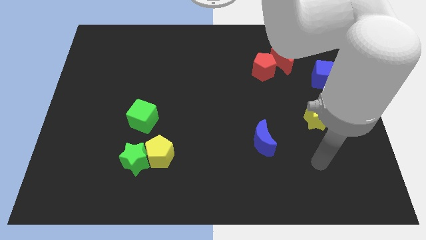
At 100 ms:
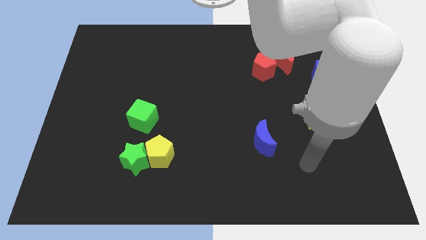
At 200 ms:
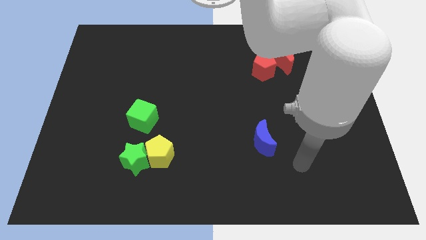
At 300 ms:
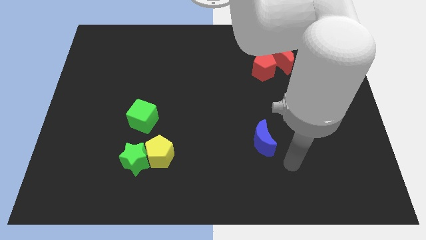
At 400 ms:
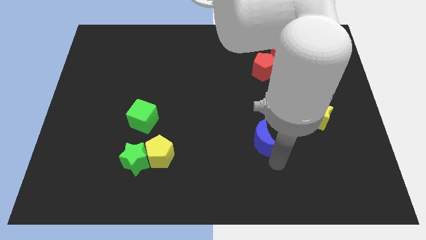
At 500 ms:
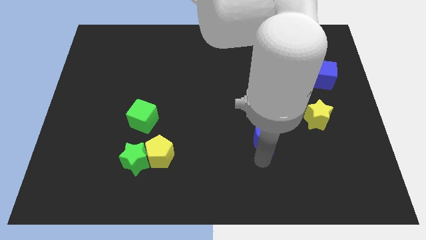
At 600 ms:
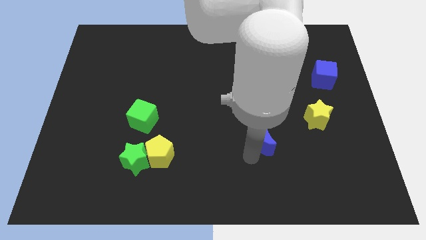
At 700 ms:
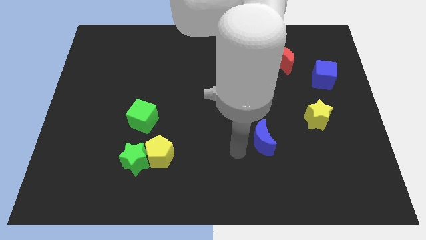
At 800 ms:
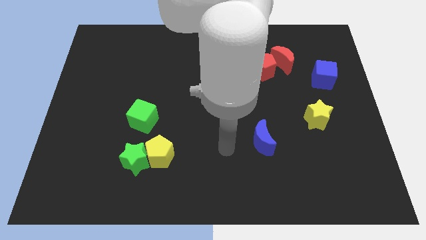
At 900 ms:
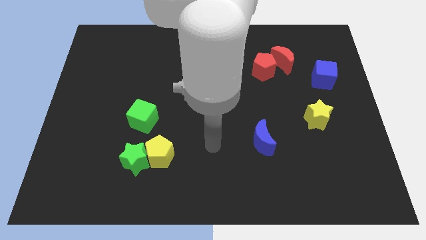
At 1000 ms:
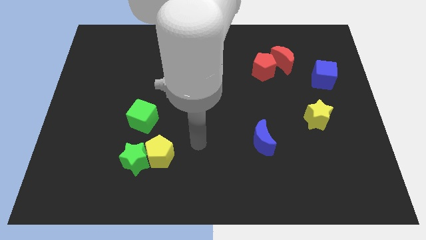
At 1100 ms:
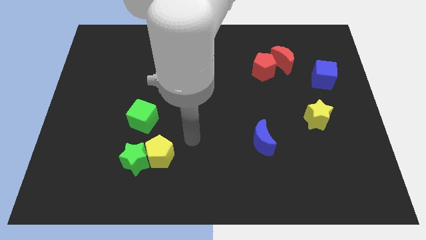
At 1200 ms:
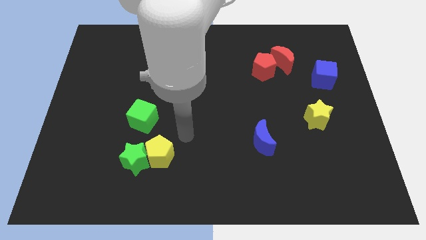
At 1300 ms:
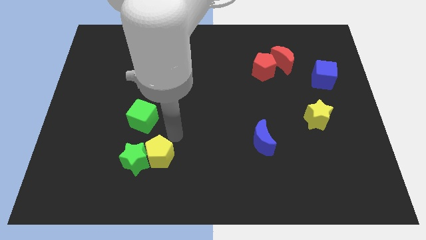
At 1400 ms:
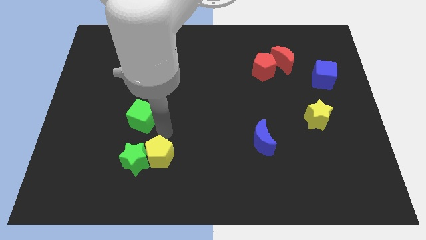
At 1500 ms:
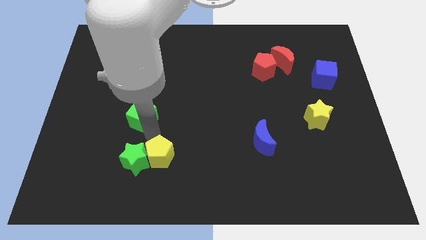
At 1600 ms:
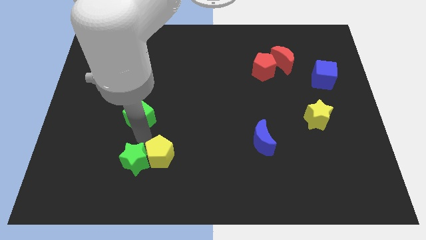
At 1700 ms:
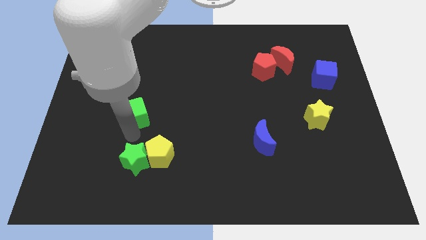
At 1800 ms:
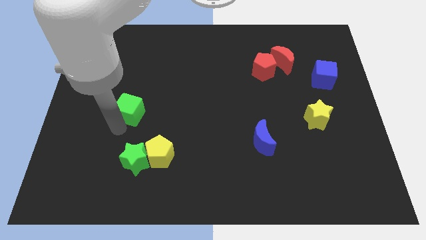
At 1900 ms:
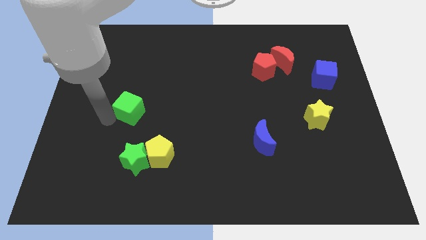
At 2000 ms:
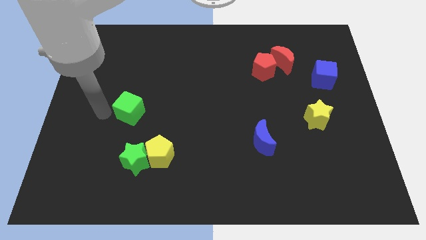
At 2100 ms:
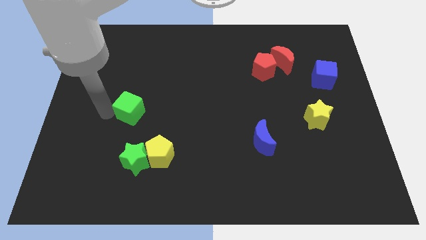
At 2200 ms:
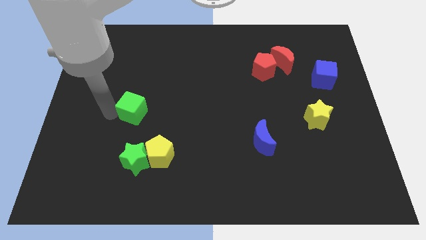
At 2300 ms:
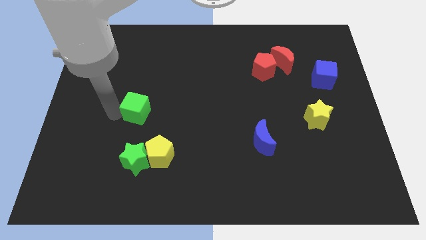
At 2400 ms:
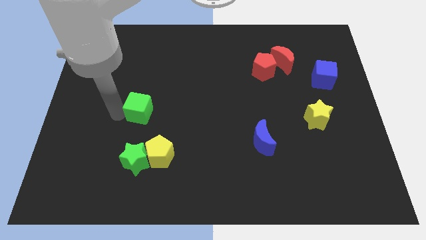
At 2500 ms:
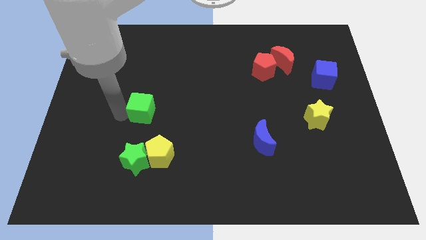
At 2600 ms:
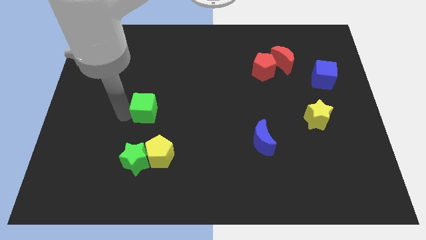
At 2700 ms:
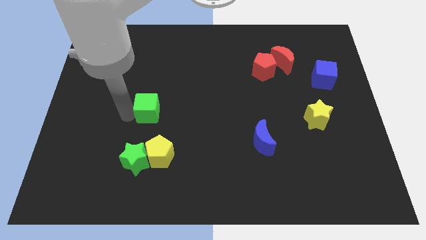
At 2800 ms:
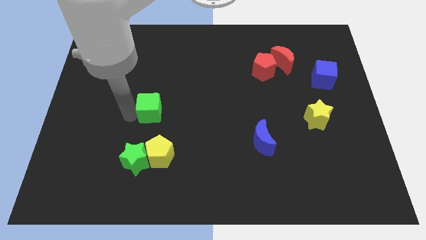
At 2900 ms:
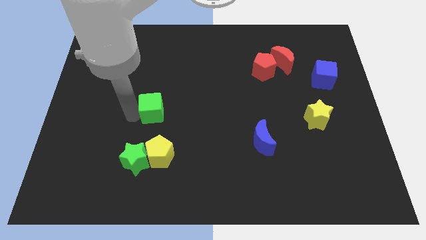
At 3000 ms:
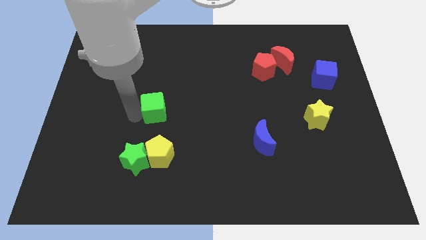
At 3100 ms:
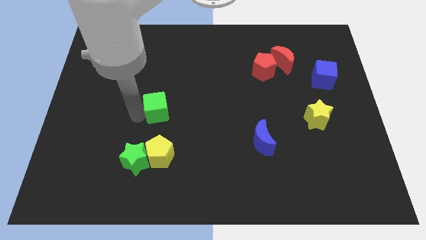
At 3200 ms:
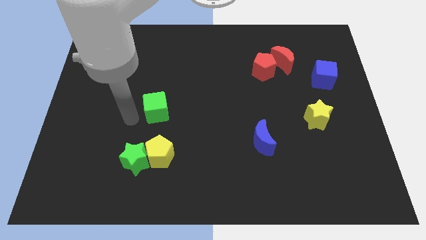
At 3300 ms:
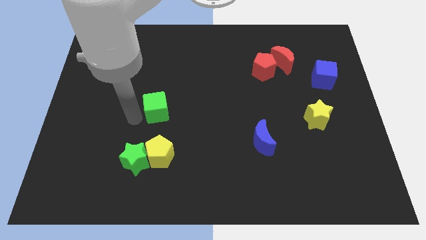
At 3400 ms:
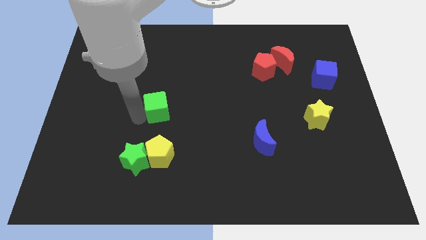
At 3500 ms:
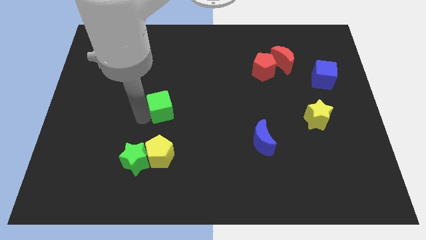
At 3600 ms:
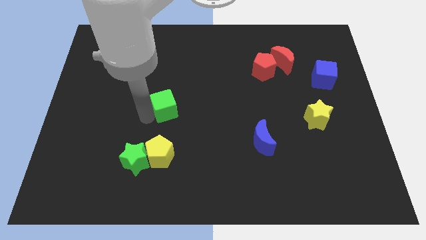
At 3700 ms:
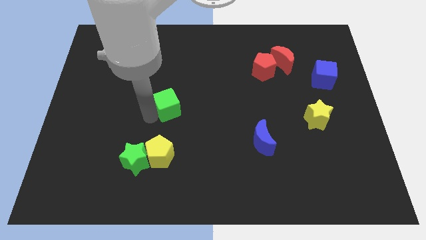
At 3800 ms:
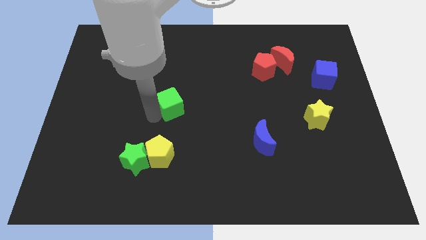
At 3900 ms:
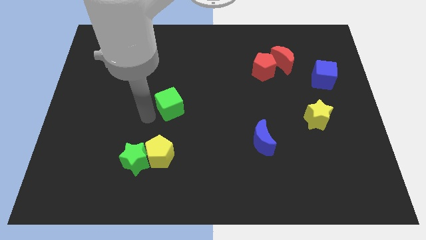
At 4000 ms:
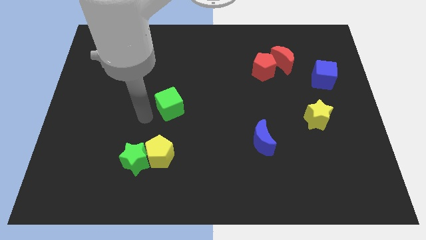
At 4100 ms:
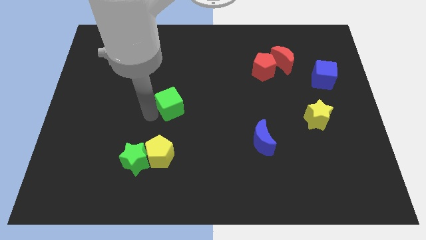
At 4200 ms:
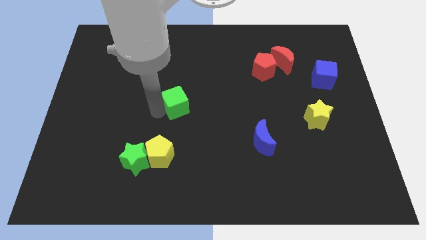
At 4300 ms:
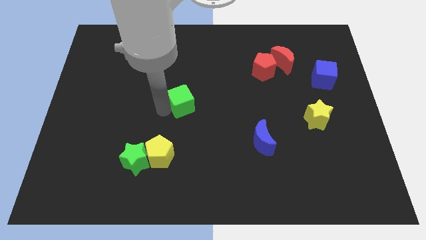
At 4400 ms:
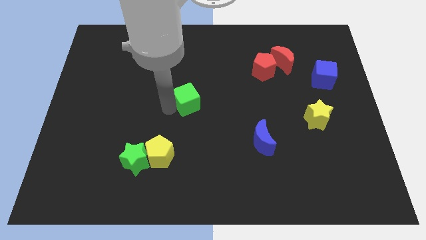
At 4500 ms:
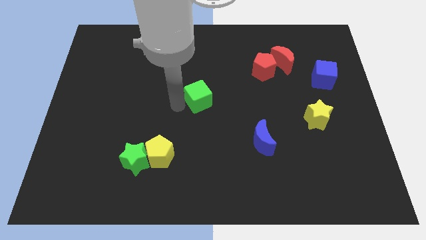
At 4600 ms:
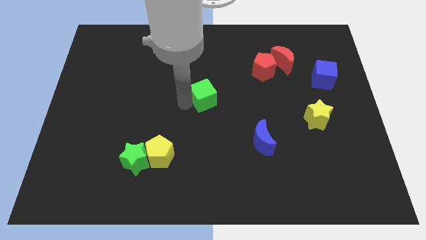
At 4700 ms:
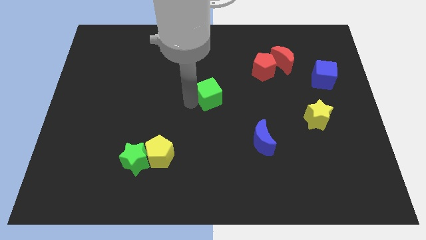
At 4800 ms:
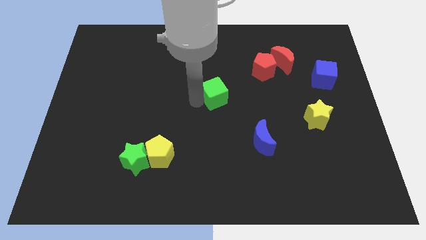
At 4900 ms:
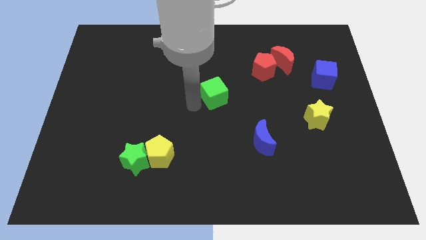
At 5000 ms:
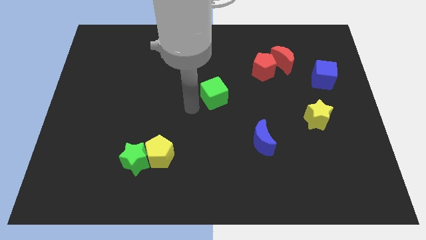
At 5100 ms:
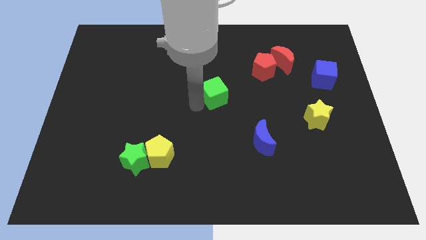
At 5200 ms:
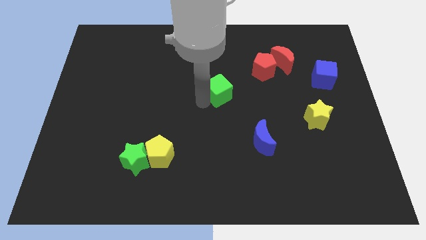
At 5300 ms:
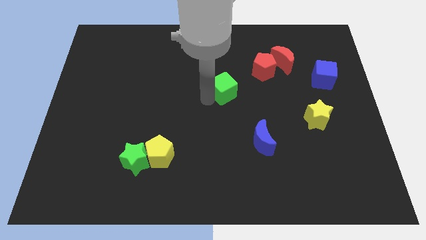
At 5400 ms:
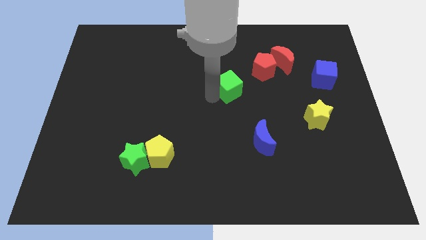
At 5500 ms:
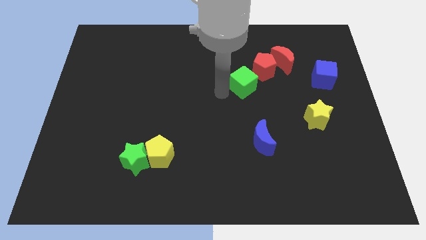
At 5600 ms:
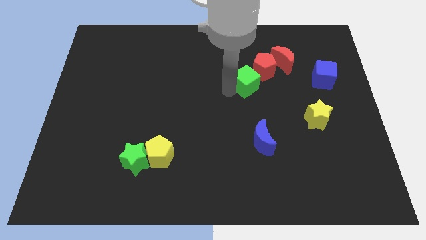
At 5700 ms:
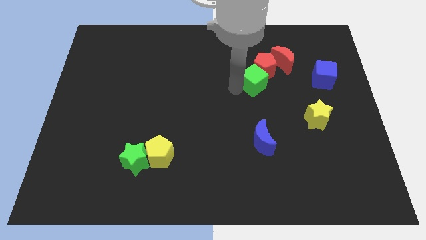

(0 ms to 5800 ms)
put the green cube next to the red pentagon

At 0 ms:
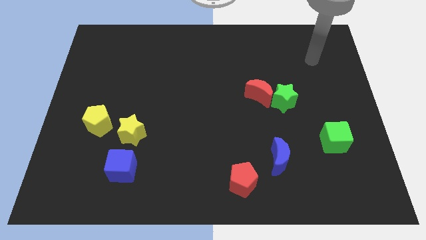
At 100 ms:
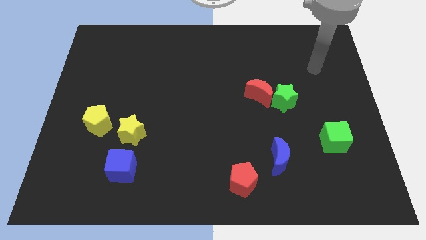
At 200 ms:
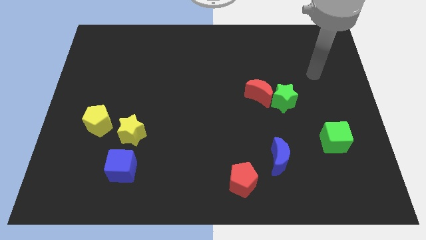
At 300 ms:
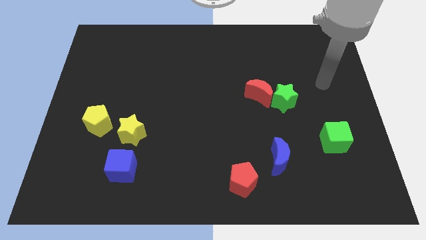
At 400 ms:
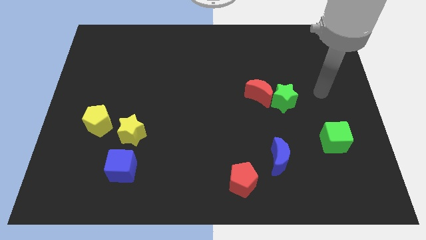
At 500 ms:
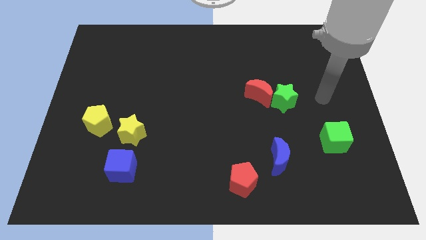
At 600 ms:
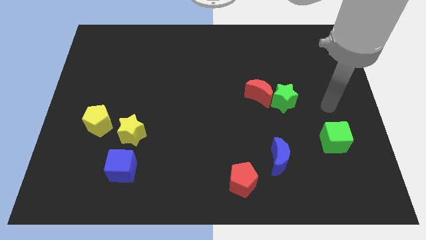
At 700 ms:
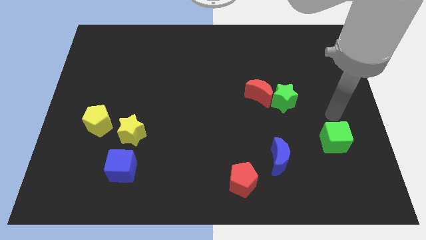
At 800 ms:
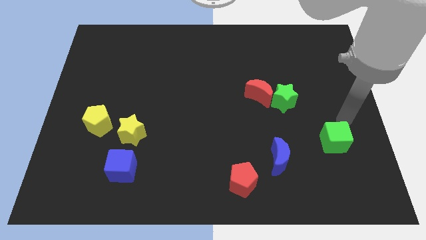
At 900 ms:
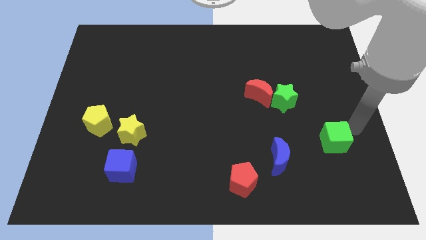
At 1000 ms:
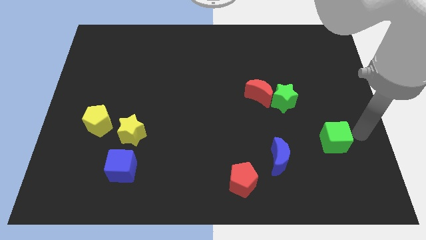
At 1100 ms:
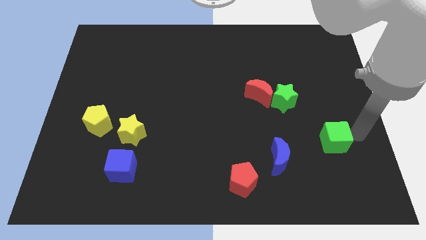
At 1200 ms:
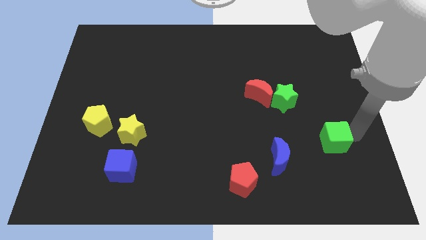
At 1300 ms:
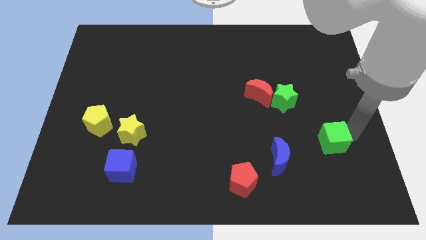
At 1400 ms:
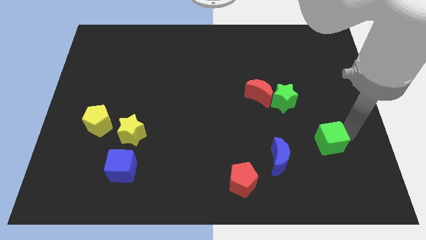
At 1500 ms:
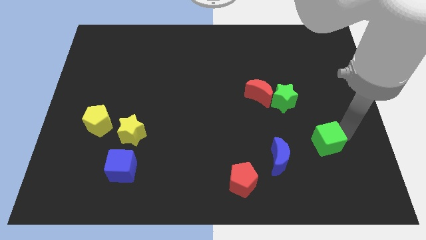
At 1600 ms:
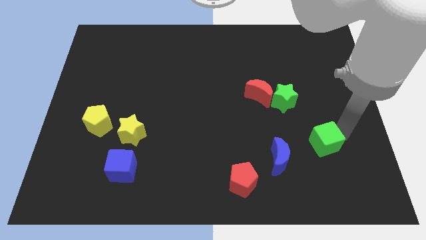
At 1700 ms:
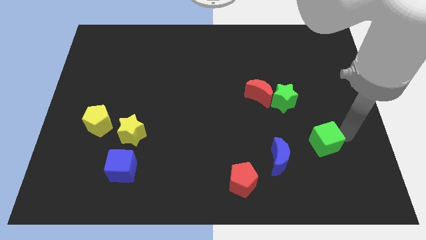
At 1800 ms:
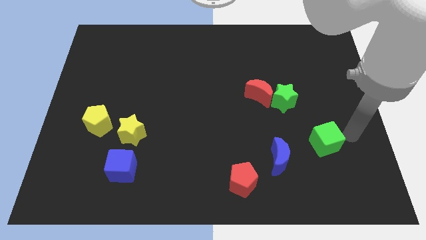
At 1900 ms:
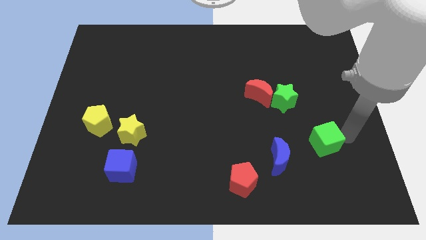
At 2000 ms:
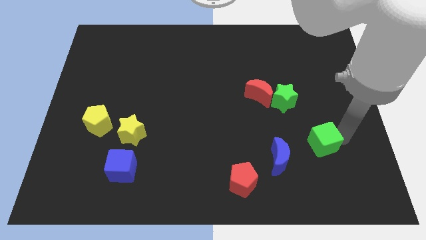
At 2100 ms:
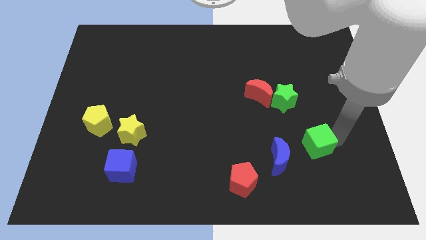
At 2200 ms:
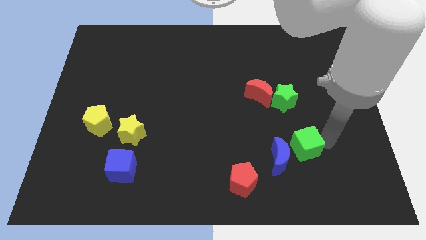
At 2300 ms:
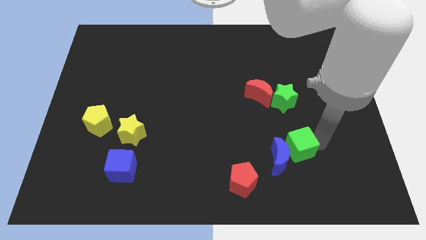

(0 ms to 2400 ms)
push the green cube close to the blue moon

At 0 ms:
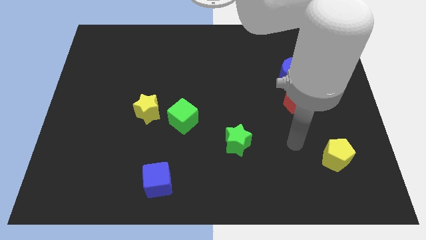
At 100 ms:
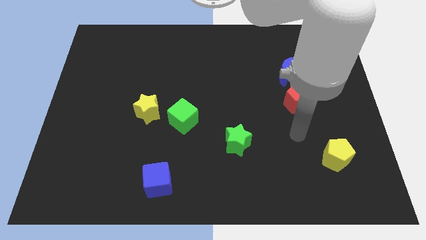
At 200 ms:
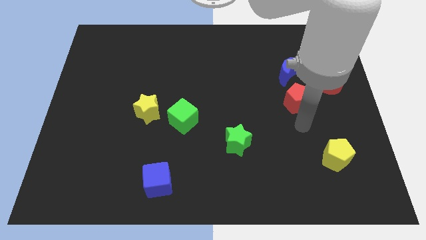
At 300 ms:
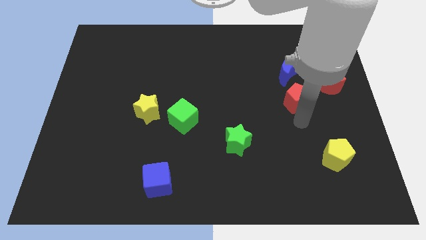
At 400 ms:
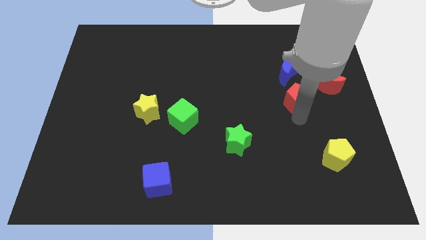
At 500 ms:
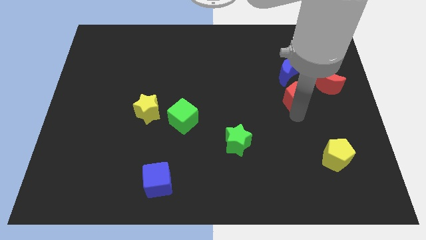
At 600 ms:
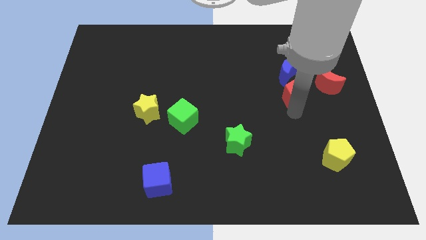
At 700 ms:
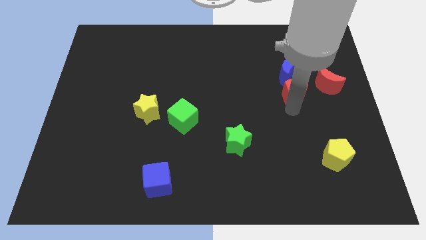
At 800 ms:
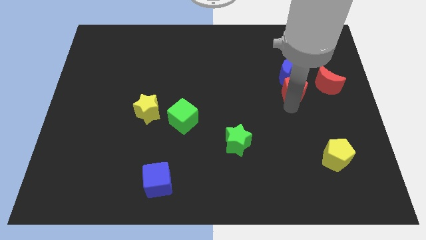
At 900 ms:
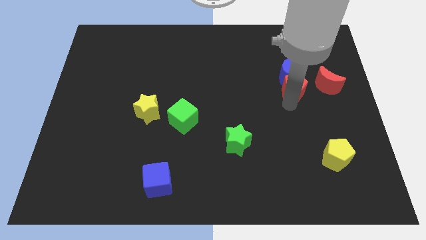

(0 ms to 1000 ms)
move the red pentagon towards the blue moon
